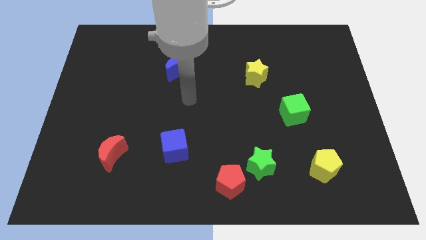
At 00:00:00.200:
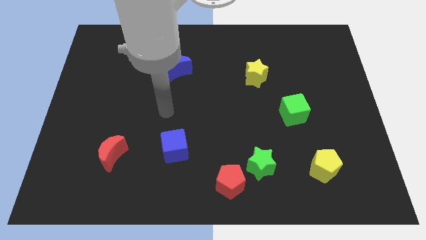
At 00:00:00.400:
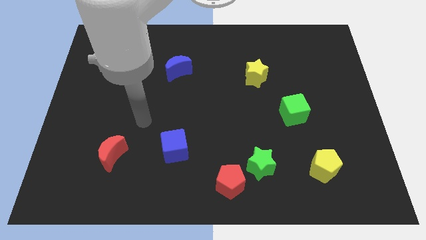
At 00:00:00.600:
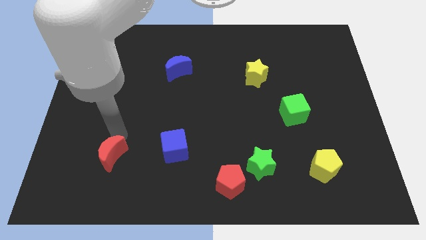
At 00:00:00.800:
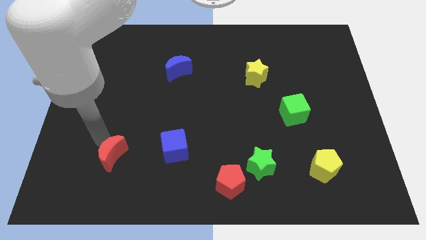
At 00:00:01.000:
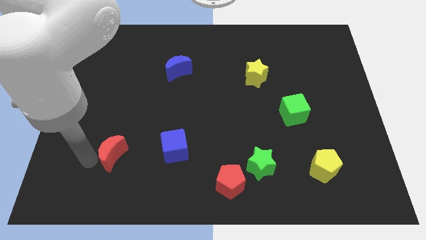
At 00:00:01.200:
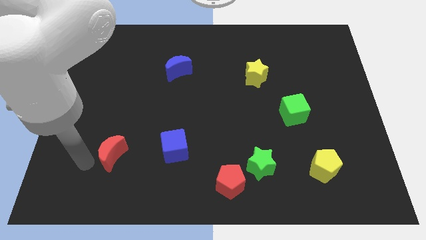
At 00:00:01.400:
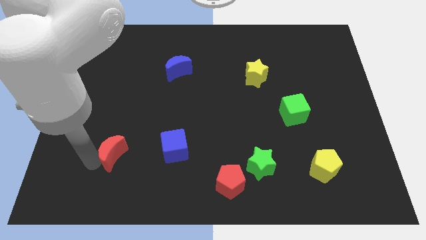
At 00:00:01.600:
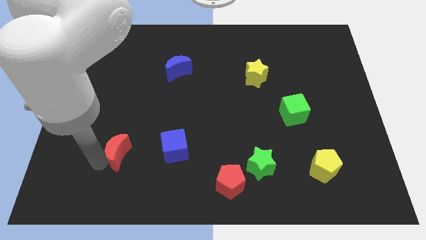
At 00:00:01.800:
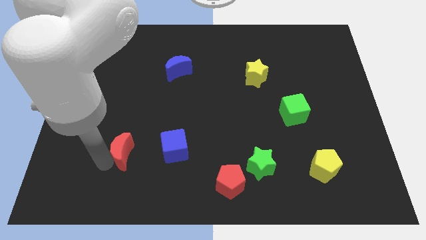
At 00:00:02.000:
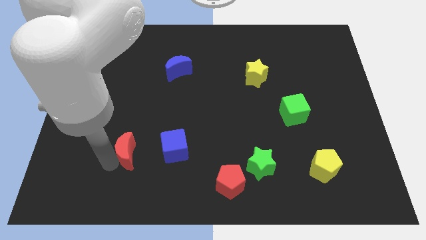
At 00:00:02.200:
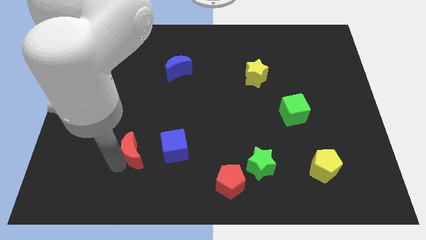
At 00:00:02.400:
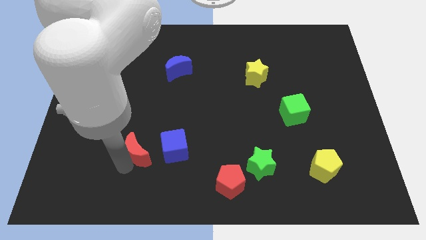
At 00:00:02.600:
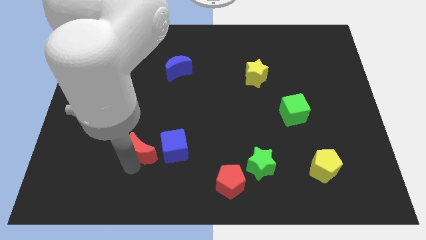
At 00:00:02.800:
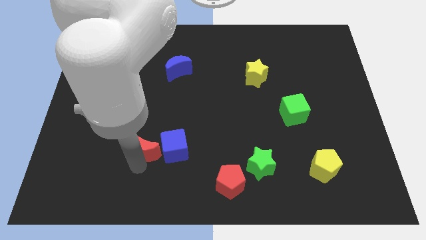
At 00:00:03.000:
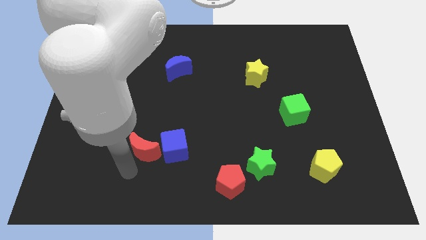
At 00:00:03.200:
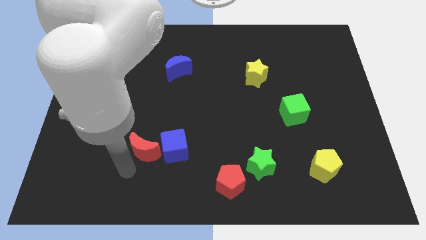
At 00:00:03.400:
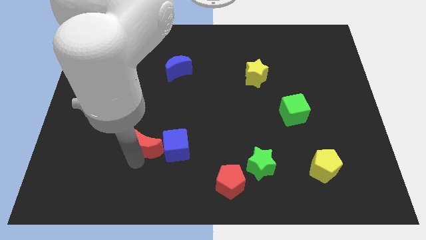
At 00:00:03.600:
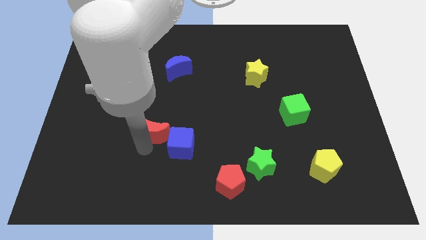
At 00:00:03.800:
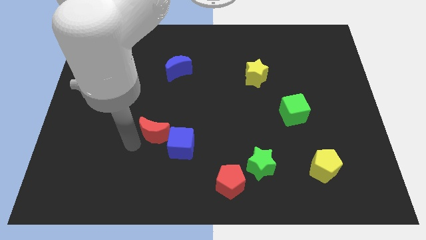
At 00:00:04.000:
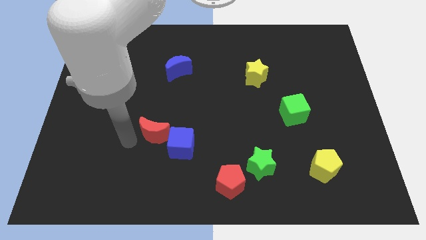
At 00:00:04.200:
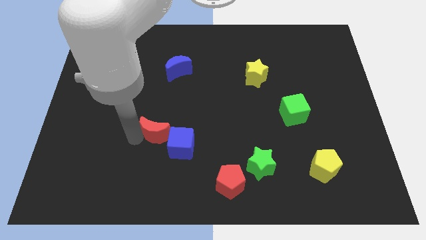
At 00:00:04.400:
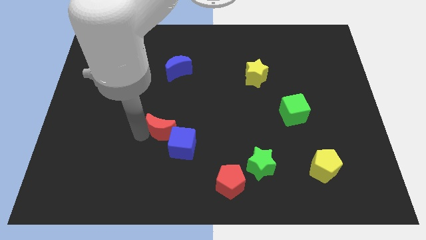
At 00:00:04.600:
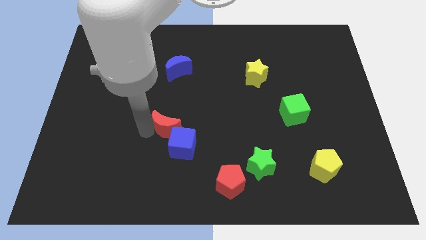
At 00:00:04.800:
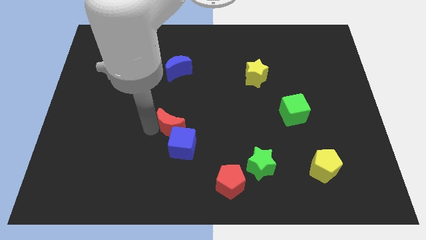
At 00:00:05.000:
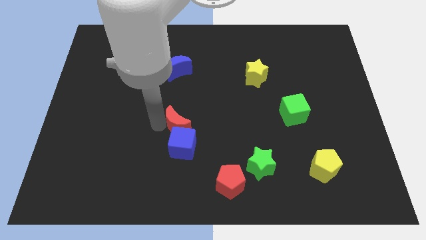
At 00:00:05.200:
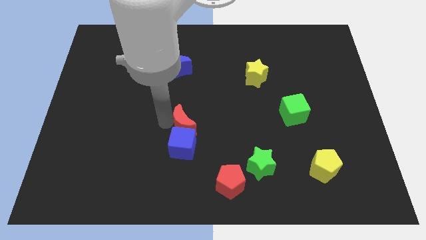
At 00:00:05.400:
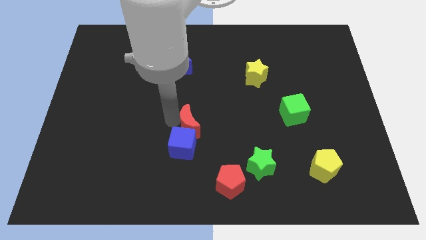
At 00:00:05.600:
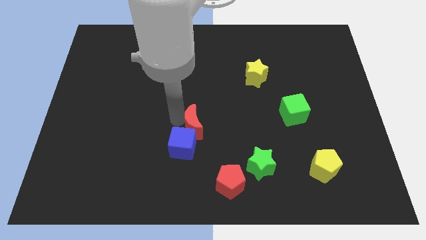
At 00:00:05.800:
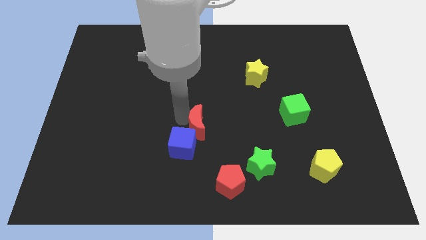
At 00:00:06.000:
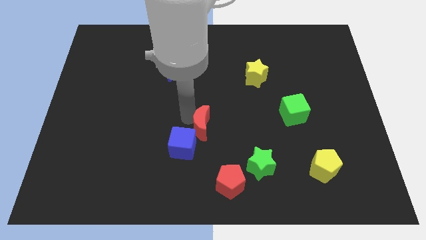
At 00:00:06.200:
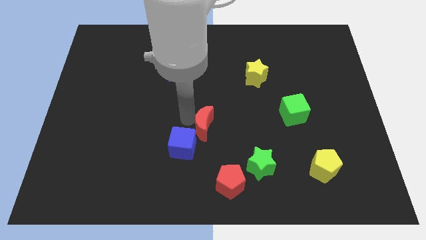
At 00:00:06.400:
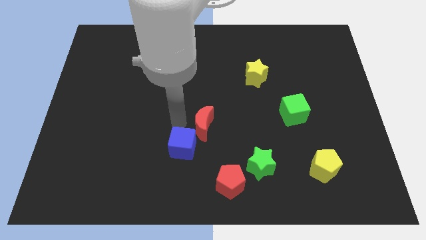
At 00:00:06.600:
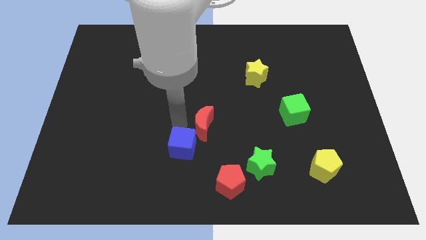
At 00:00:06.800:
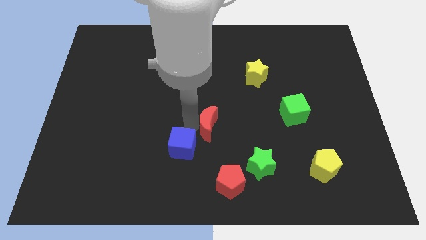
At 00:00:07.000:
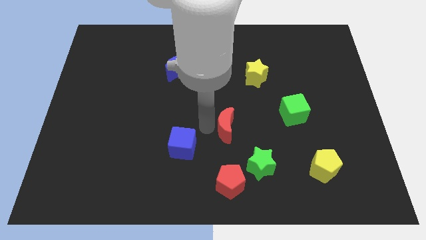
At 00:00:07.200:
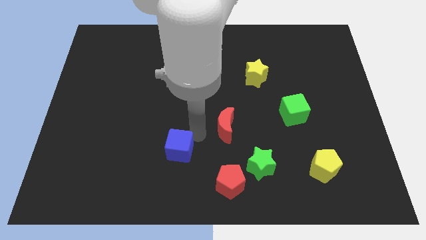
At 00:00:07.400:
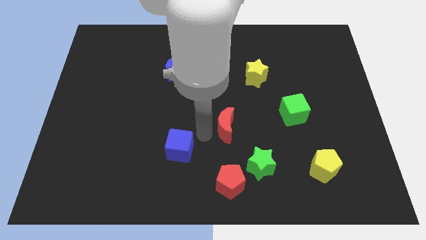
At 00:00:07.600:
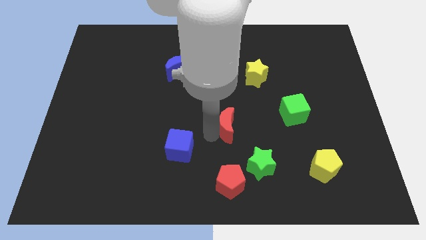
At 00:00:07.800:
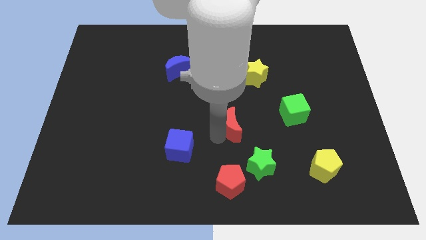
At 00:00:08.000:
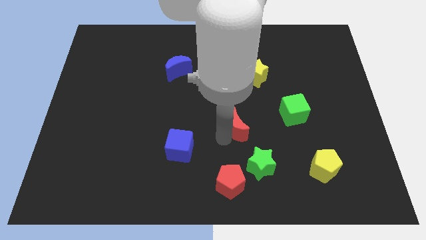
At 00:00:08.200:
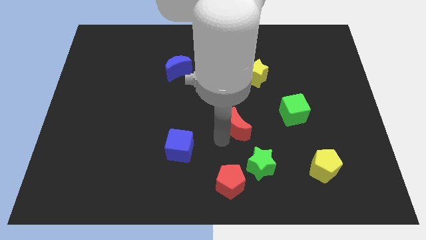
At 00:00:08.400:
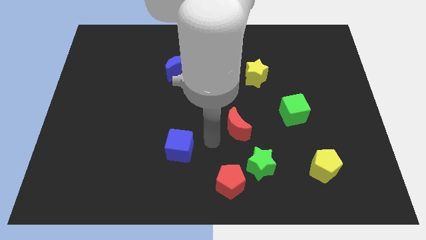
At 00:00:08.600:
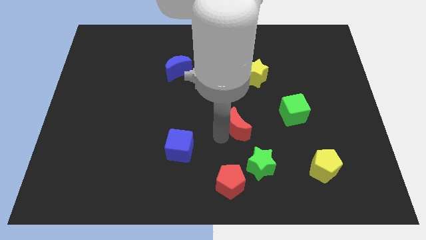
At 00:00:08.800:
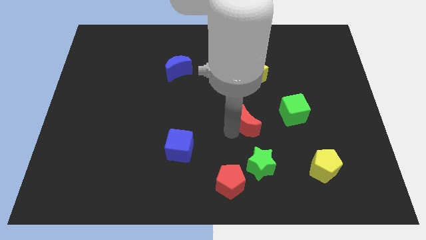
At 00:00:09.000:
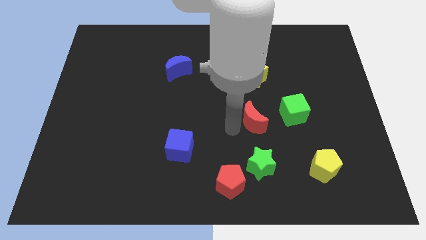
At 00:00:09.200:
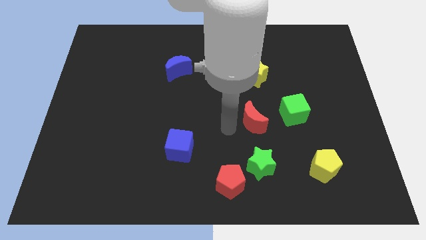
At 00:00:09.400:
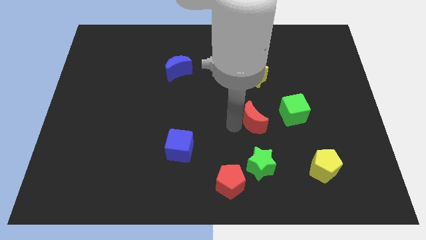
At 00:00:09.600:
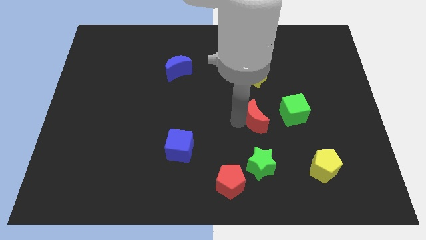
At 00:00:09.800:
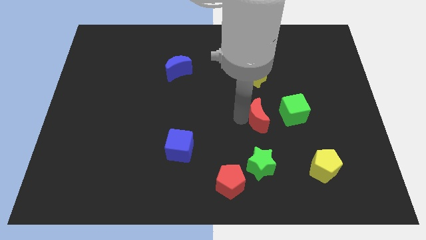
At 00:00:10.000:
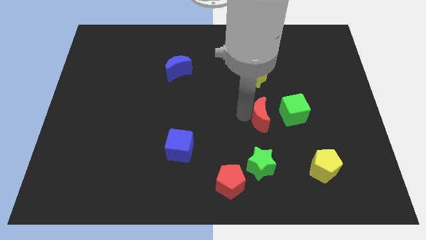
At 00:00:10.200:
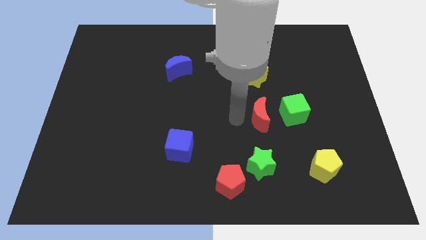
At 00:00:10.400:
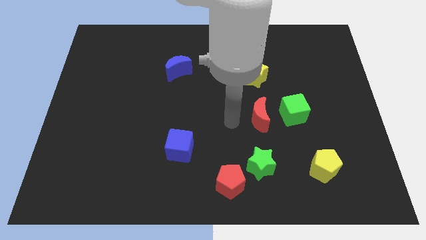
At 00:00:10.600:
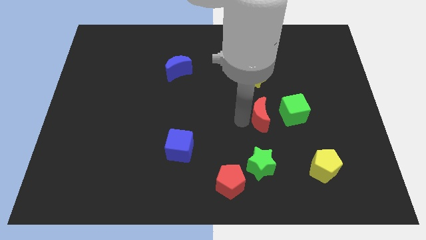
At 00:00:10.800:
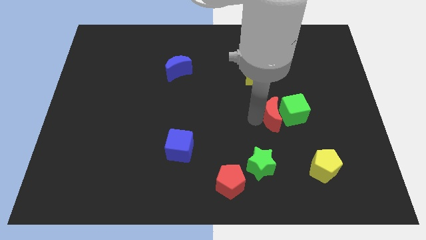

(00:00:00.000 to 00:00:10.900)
slide the red moon next to the green cube

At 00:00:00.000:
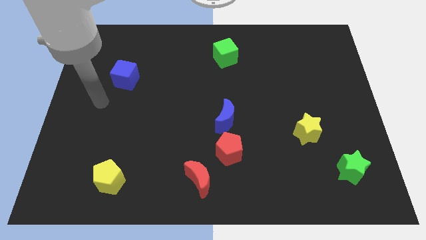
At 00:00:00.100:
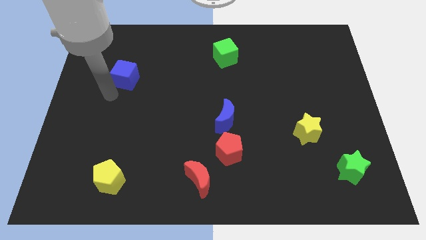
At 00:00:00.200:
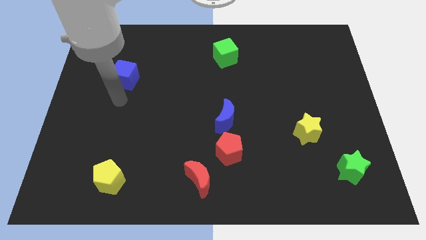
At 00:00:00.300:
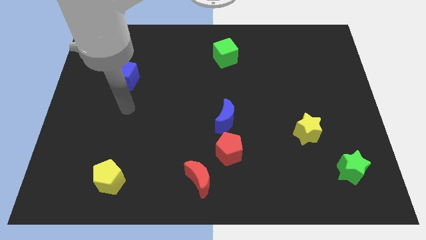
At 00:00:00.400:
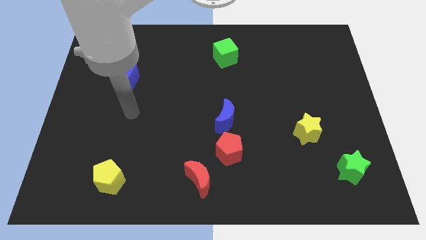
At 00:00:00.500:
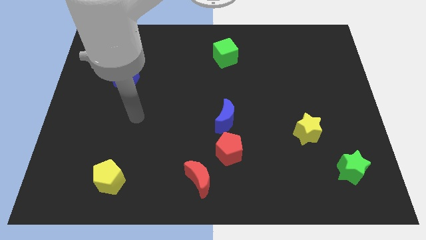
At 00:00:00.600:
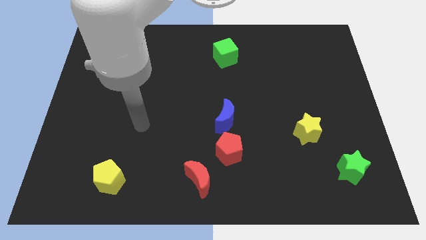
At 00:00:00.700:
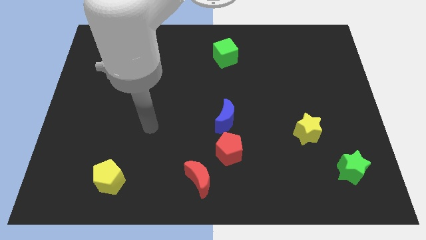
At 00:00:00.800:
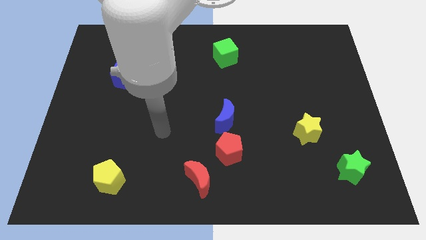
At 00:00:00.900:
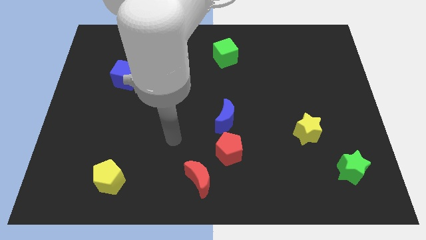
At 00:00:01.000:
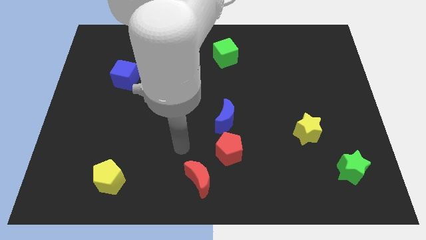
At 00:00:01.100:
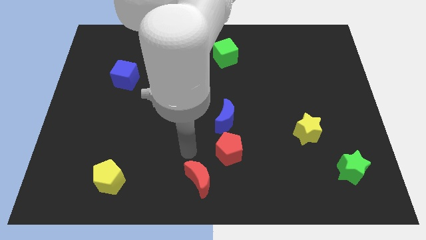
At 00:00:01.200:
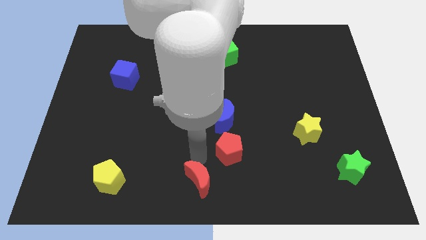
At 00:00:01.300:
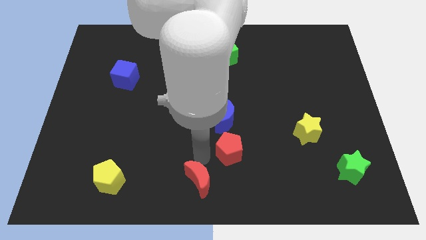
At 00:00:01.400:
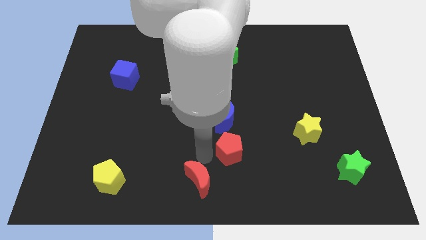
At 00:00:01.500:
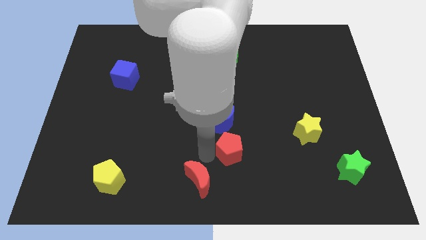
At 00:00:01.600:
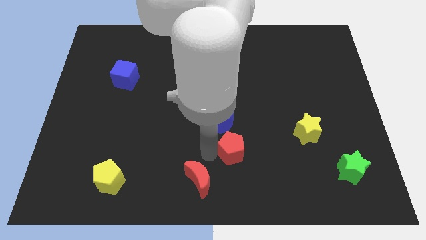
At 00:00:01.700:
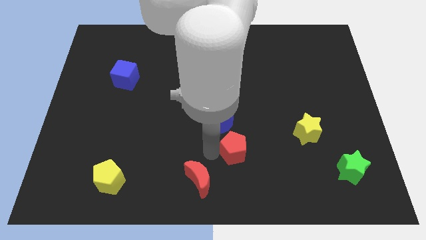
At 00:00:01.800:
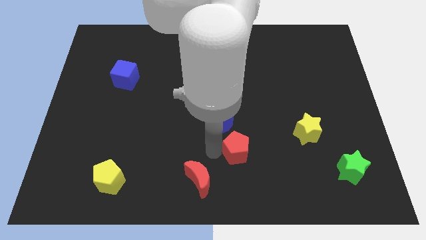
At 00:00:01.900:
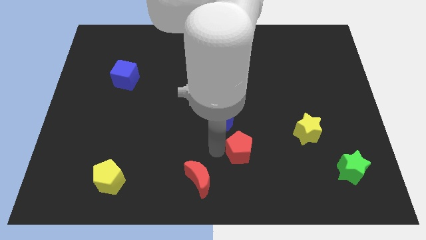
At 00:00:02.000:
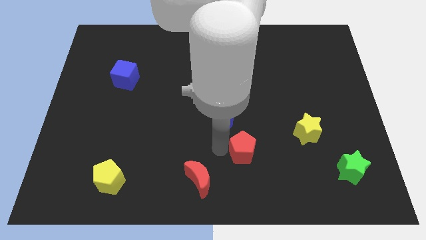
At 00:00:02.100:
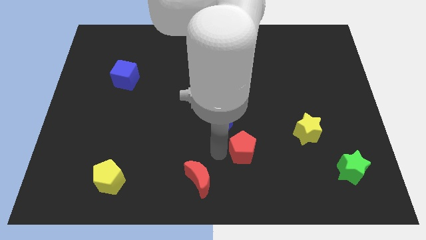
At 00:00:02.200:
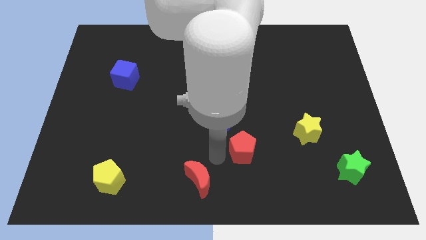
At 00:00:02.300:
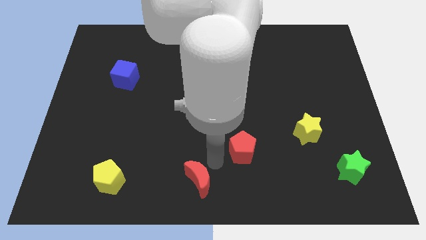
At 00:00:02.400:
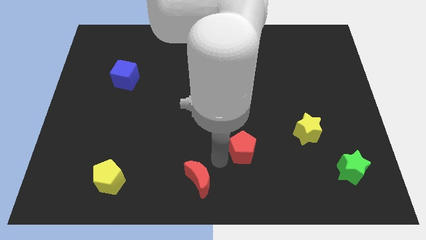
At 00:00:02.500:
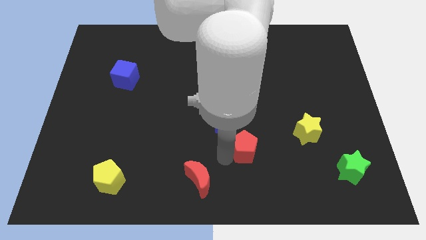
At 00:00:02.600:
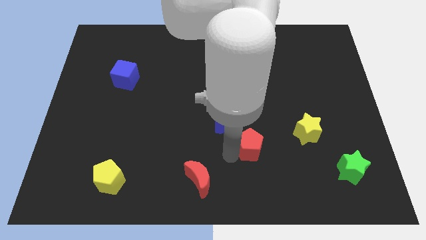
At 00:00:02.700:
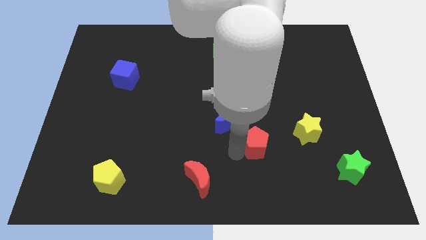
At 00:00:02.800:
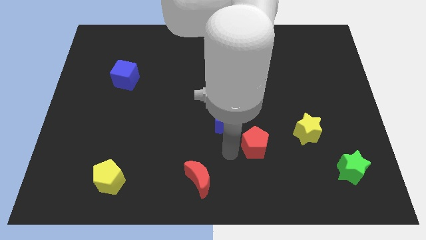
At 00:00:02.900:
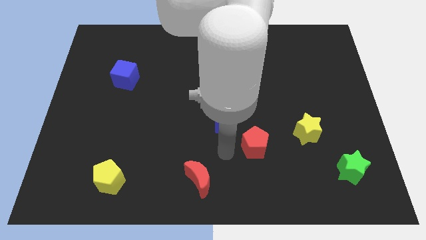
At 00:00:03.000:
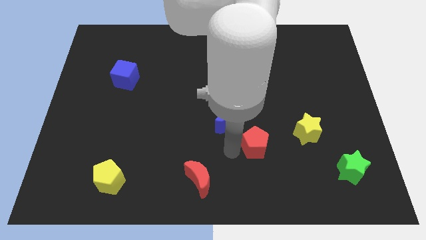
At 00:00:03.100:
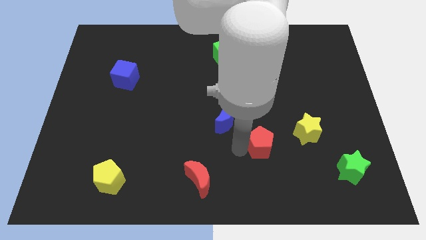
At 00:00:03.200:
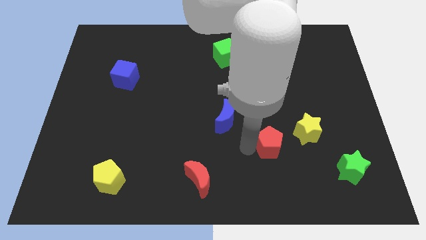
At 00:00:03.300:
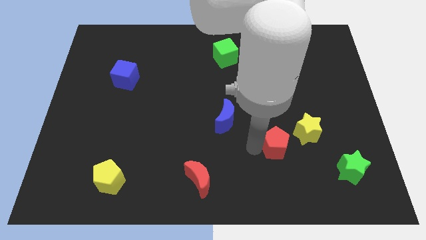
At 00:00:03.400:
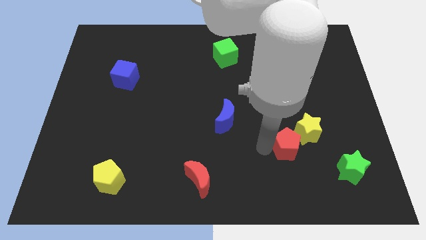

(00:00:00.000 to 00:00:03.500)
move the red pentagon towards the yellow star
